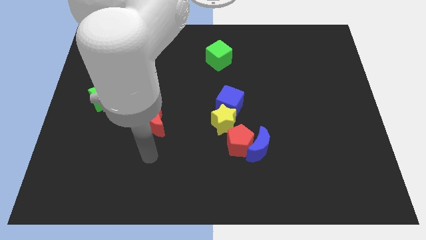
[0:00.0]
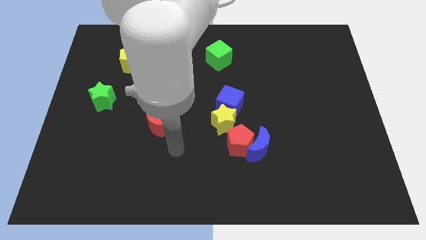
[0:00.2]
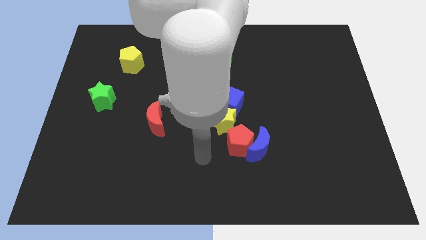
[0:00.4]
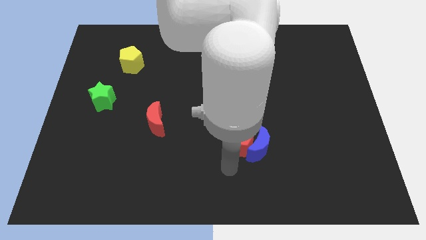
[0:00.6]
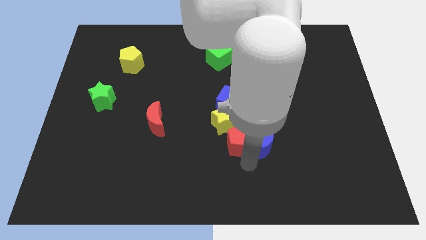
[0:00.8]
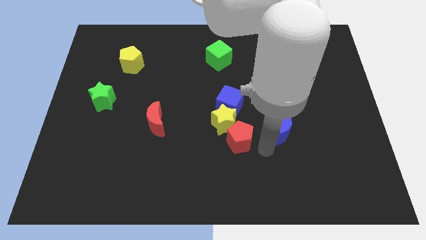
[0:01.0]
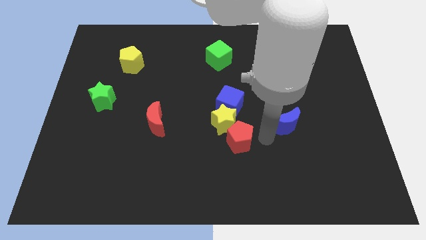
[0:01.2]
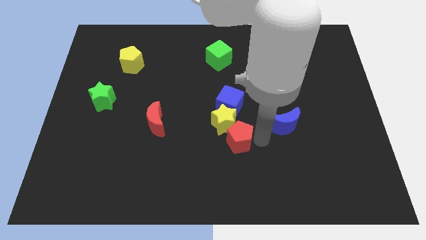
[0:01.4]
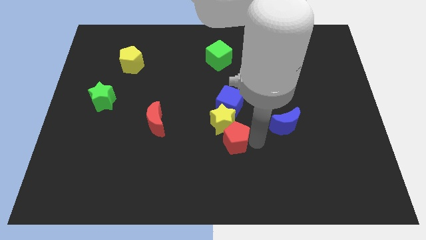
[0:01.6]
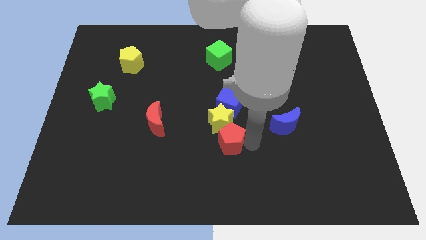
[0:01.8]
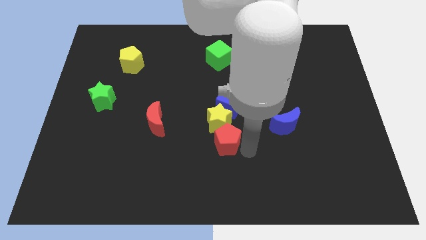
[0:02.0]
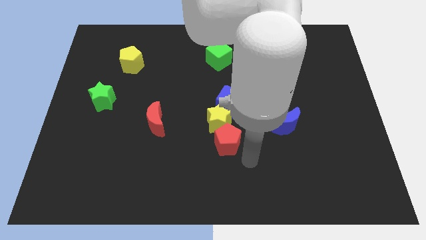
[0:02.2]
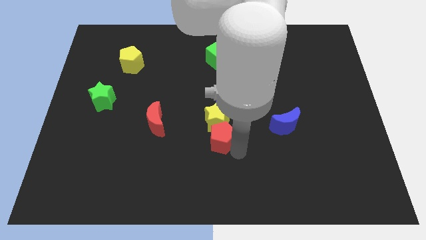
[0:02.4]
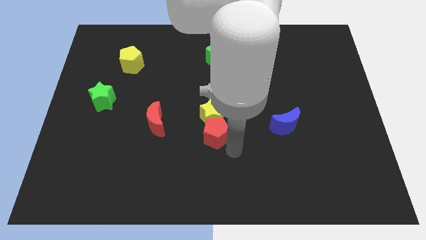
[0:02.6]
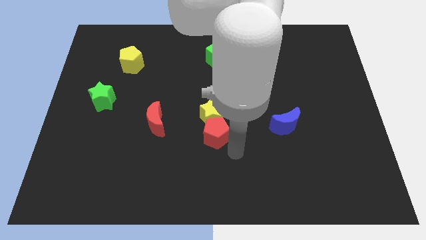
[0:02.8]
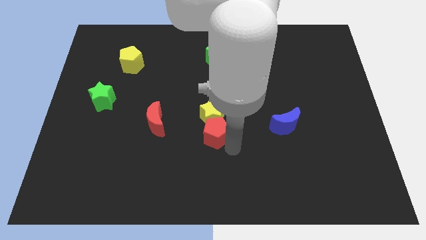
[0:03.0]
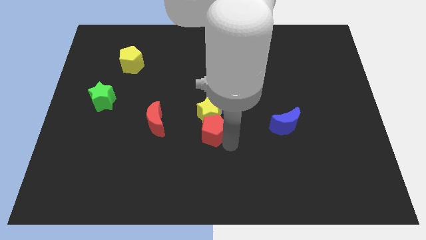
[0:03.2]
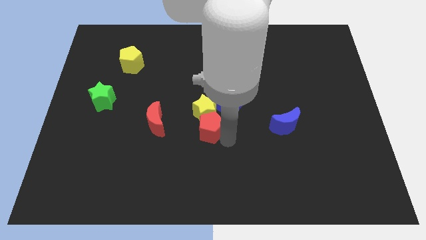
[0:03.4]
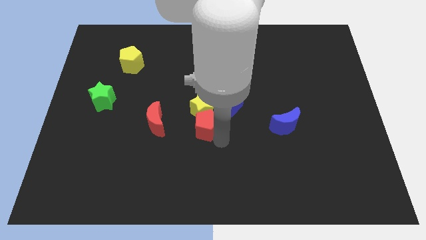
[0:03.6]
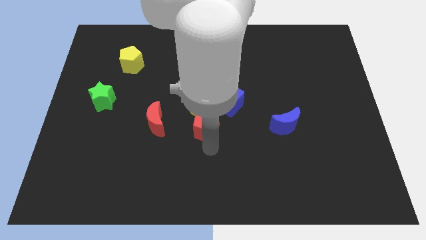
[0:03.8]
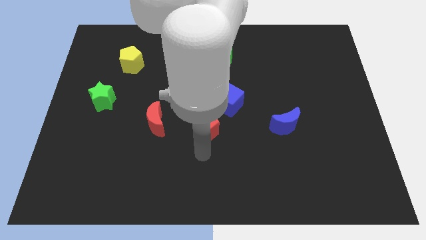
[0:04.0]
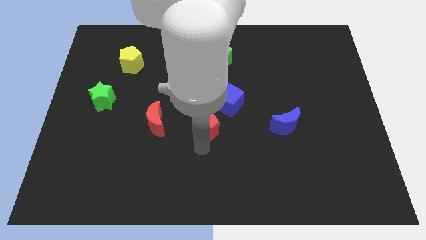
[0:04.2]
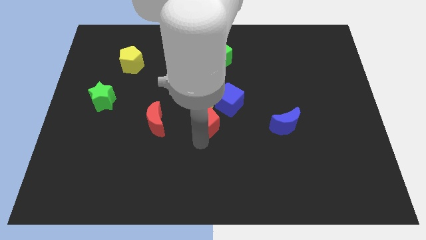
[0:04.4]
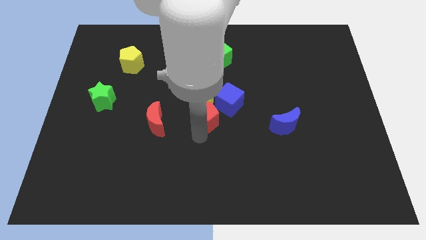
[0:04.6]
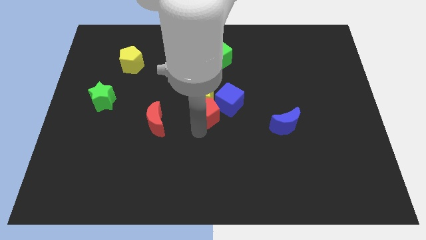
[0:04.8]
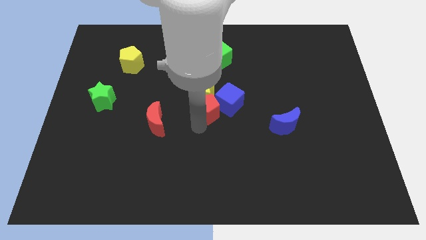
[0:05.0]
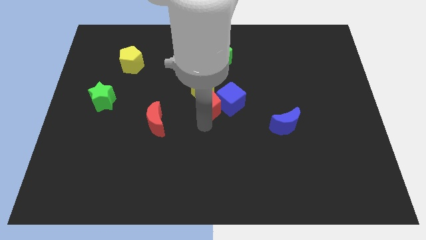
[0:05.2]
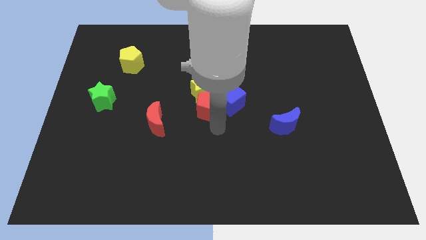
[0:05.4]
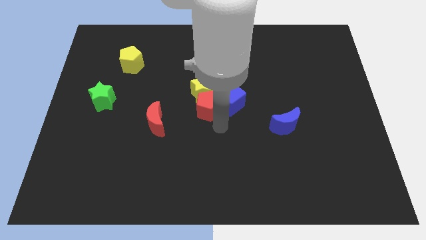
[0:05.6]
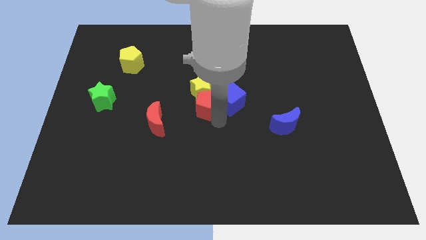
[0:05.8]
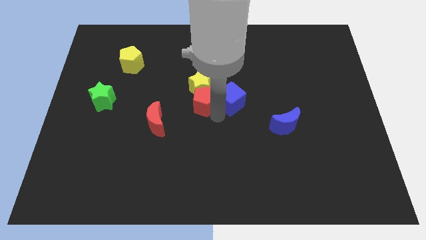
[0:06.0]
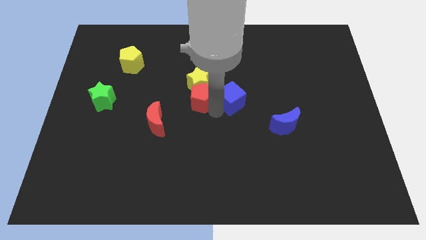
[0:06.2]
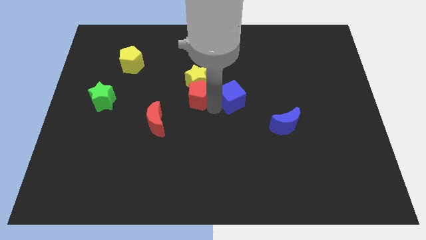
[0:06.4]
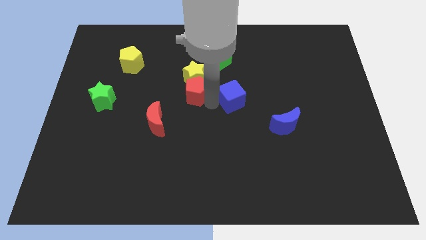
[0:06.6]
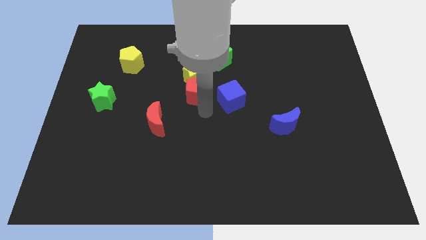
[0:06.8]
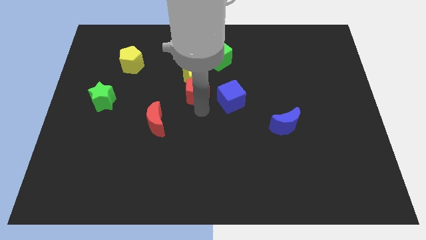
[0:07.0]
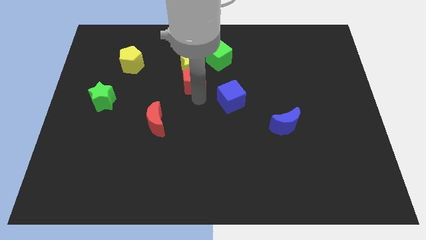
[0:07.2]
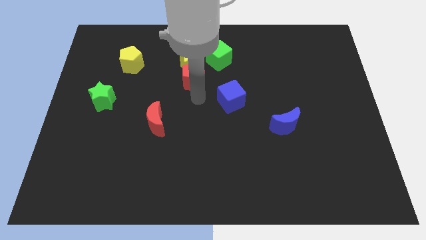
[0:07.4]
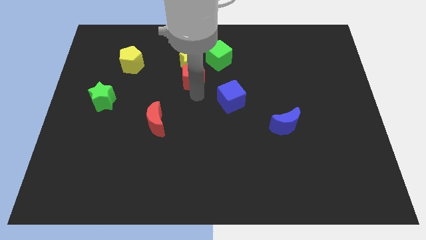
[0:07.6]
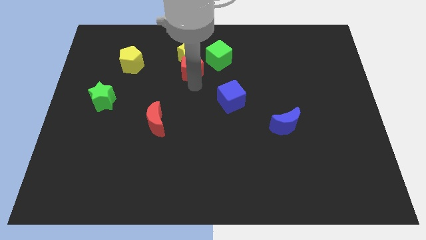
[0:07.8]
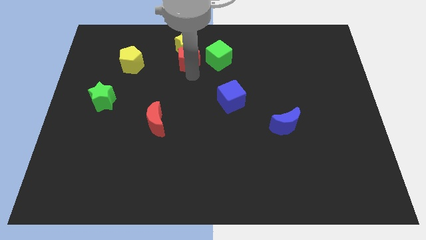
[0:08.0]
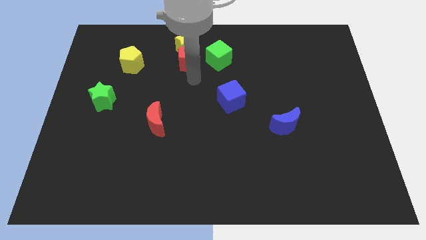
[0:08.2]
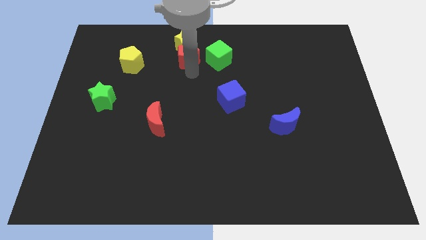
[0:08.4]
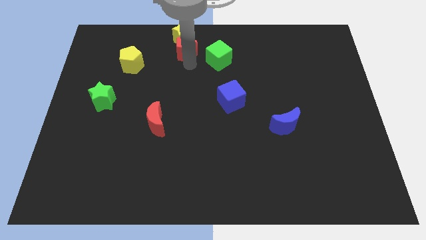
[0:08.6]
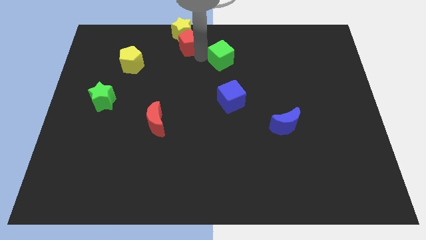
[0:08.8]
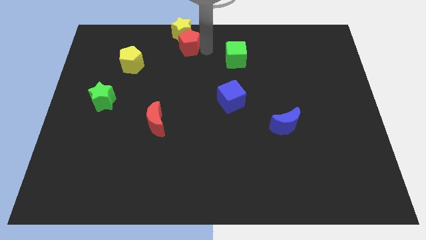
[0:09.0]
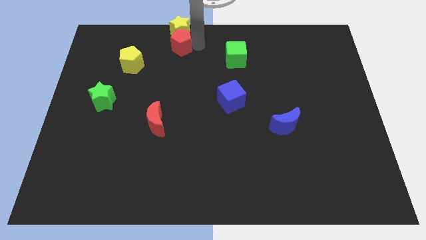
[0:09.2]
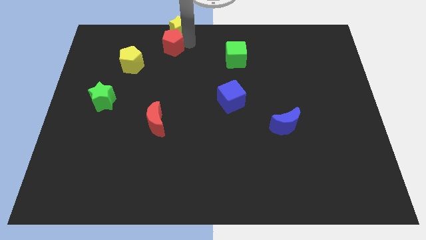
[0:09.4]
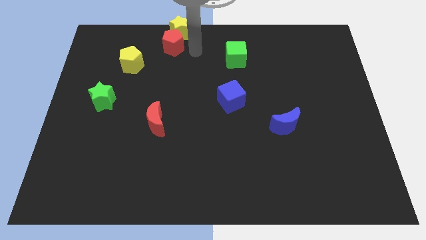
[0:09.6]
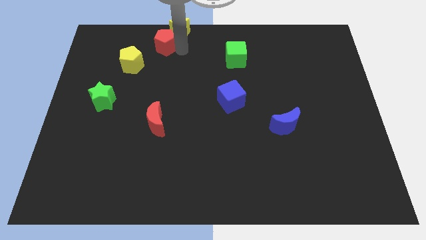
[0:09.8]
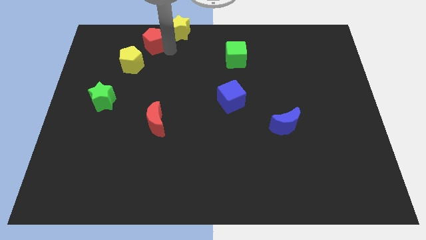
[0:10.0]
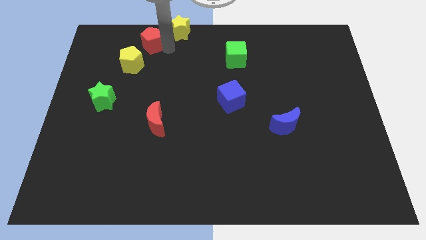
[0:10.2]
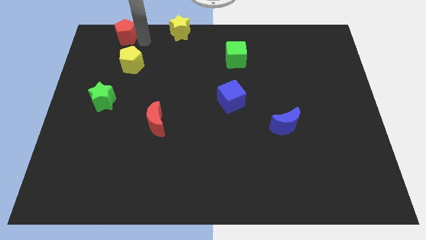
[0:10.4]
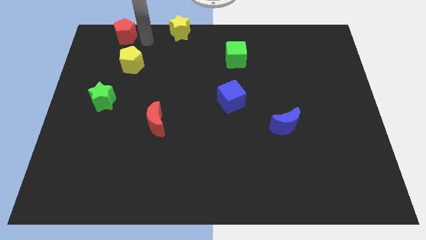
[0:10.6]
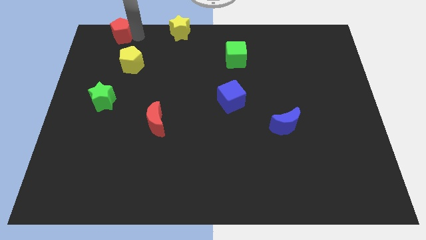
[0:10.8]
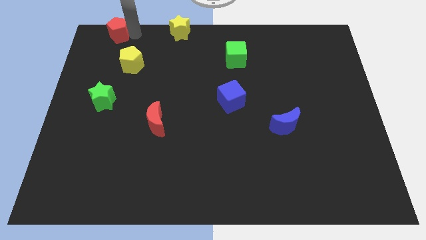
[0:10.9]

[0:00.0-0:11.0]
move the red pentagon to the top left corner

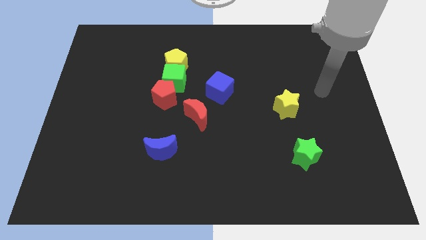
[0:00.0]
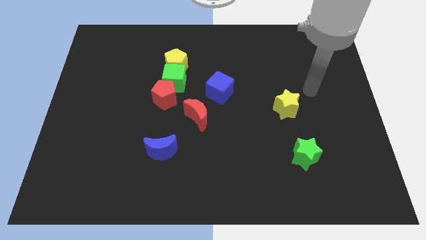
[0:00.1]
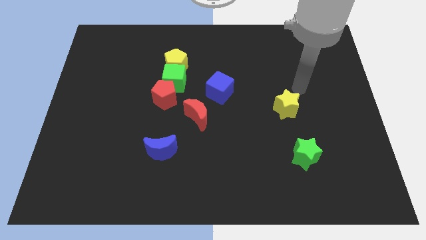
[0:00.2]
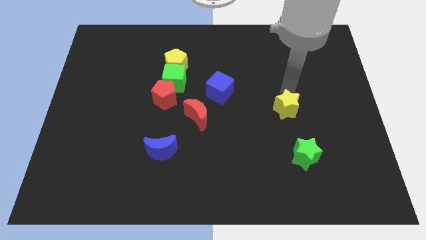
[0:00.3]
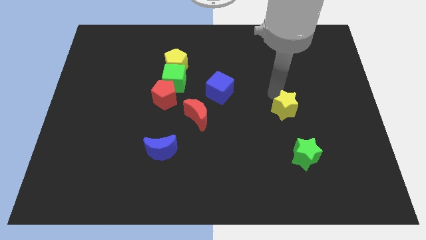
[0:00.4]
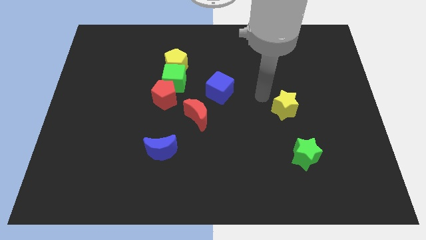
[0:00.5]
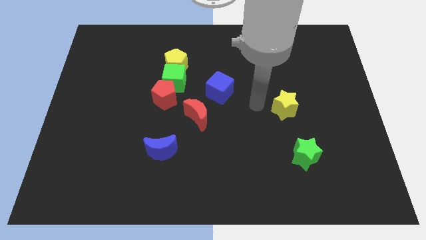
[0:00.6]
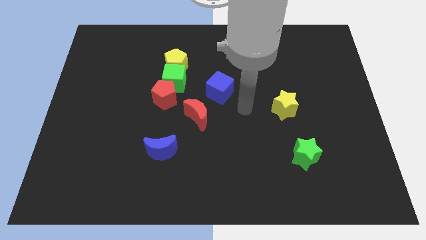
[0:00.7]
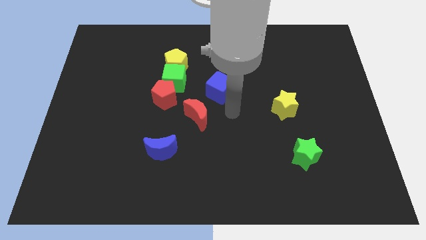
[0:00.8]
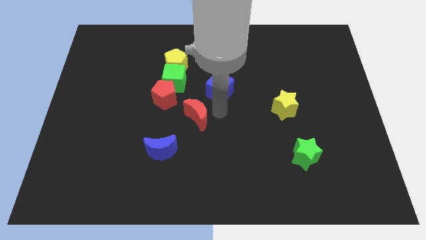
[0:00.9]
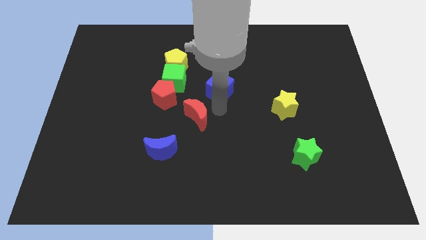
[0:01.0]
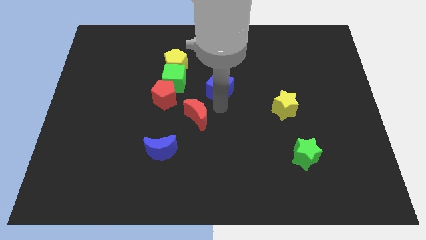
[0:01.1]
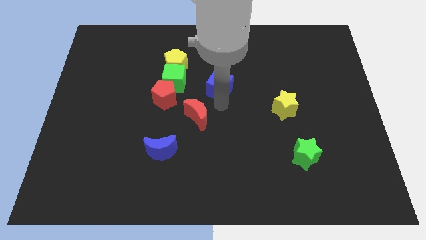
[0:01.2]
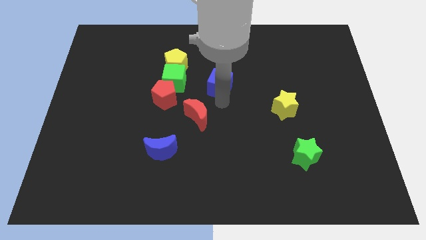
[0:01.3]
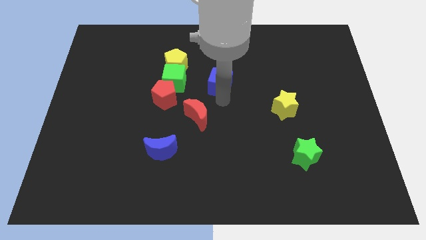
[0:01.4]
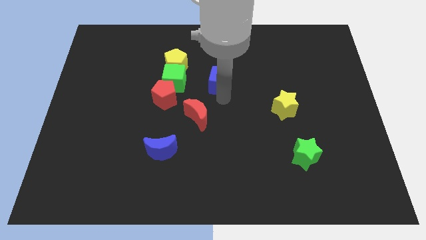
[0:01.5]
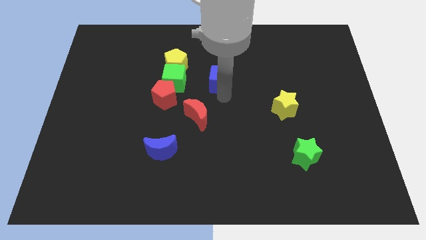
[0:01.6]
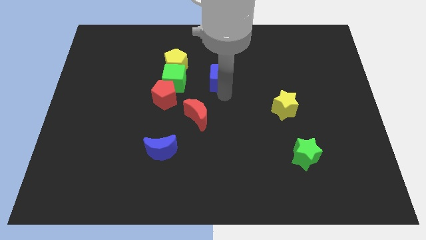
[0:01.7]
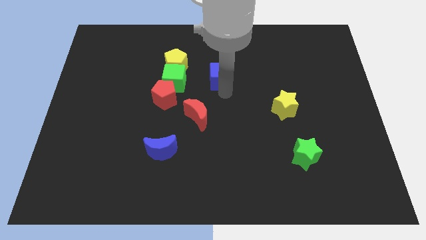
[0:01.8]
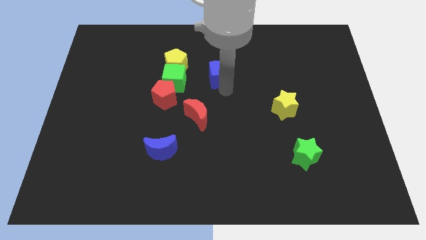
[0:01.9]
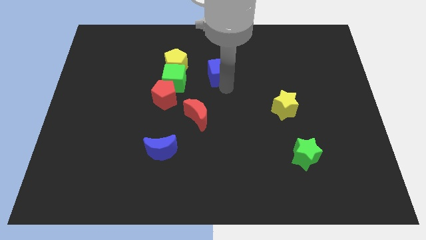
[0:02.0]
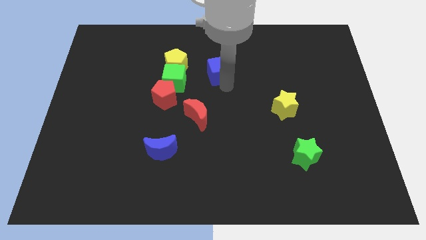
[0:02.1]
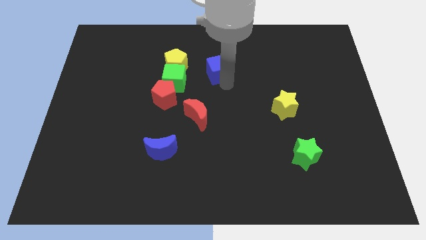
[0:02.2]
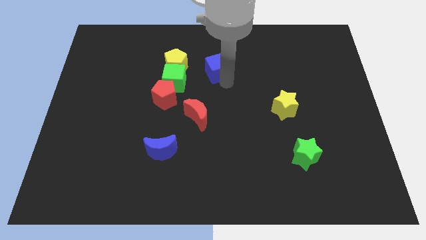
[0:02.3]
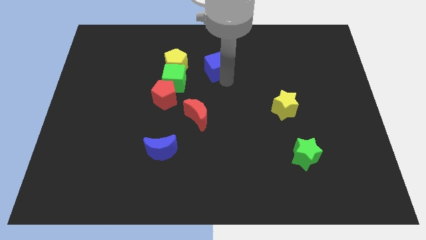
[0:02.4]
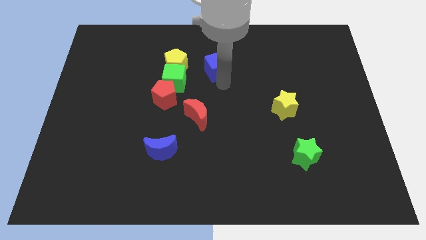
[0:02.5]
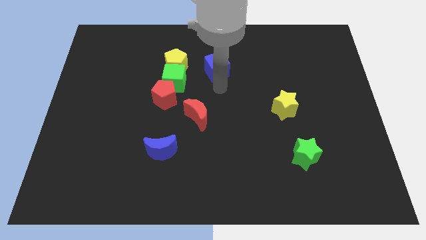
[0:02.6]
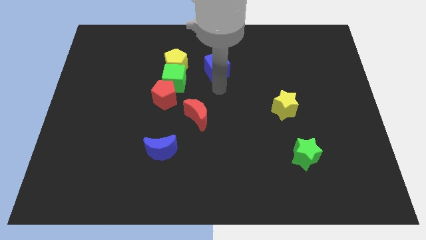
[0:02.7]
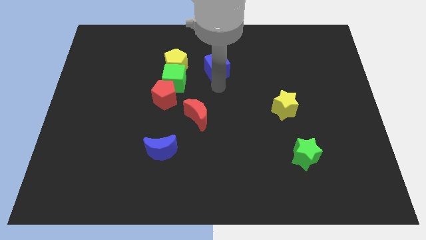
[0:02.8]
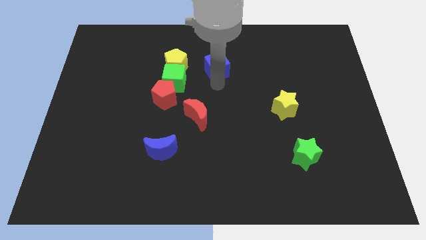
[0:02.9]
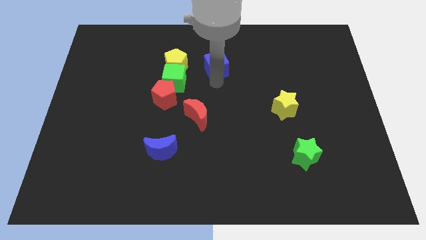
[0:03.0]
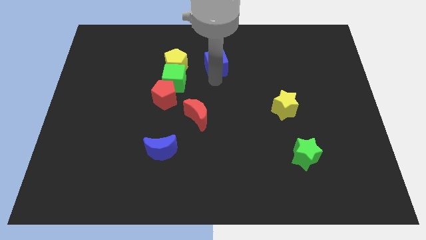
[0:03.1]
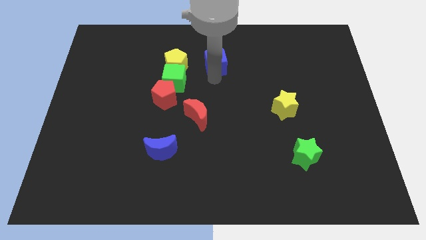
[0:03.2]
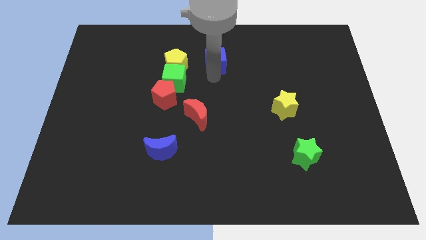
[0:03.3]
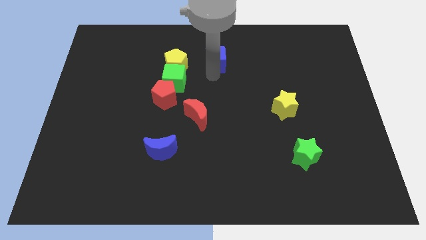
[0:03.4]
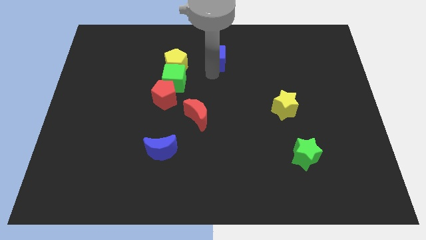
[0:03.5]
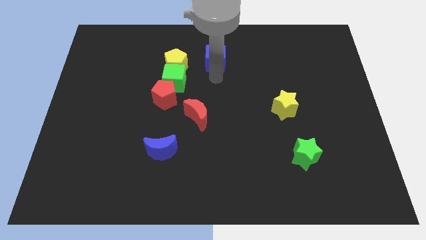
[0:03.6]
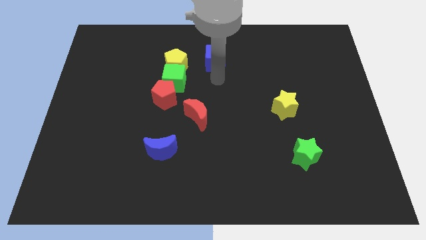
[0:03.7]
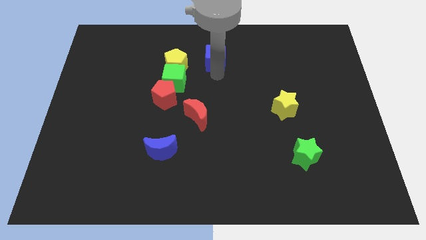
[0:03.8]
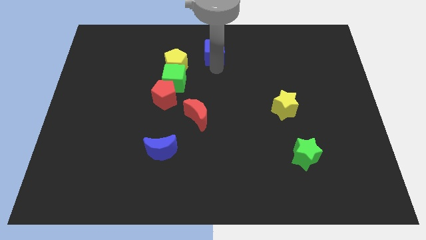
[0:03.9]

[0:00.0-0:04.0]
push the blue cube to the top
